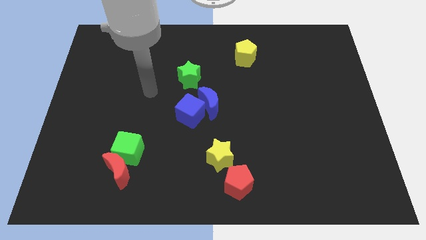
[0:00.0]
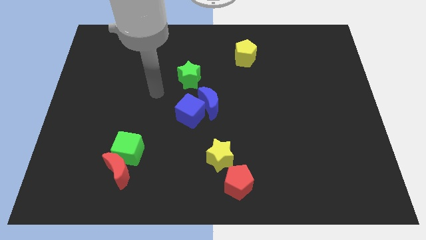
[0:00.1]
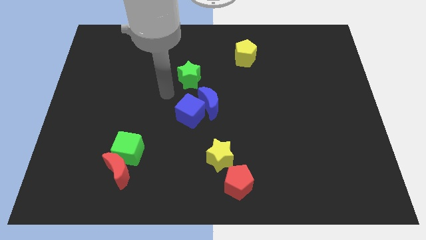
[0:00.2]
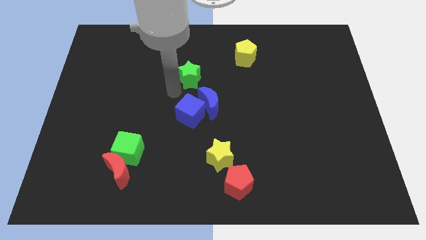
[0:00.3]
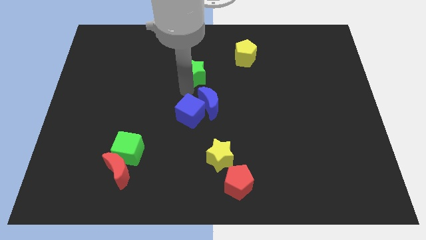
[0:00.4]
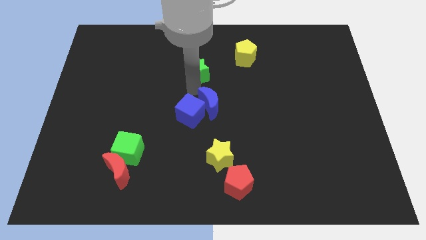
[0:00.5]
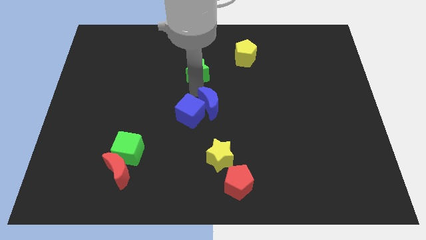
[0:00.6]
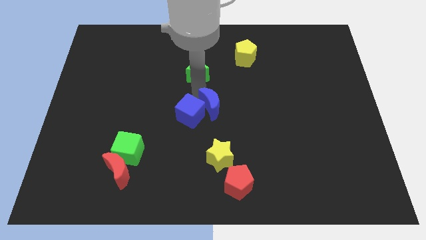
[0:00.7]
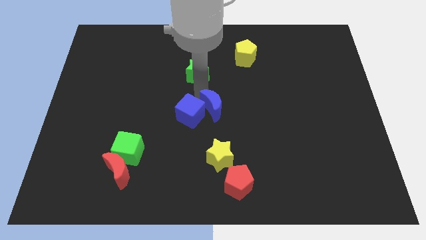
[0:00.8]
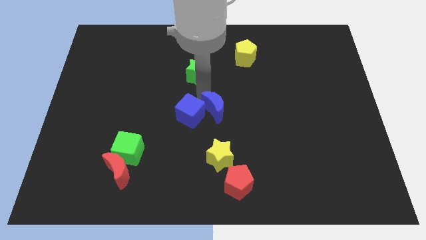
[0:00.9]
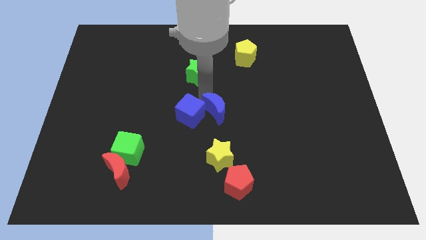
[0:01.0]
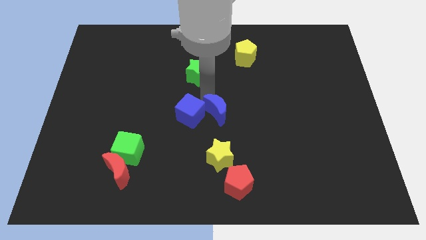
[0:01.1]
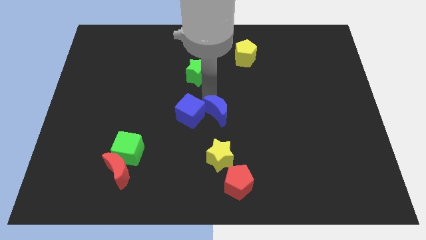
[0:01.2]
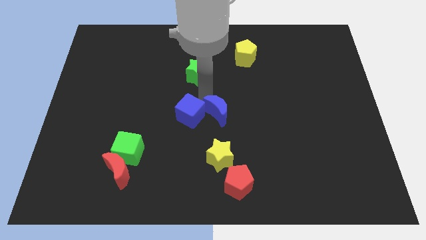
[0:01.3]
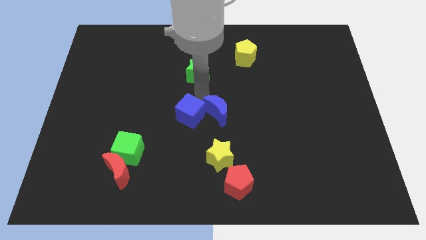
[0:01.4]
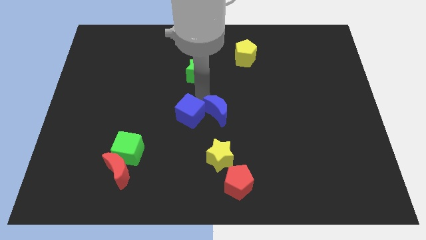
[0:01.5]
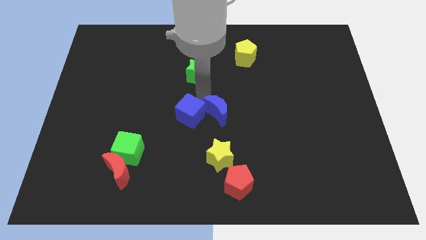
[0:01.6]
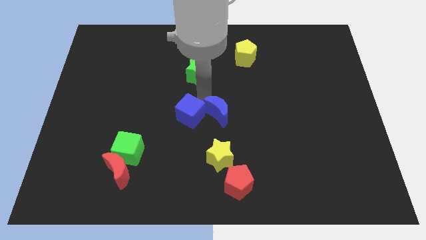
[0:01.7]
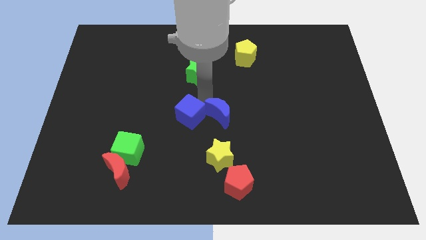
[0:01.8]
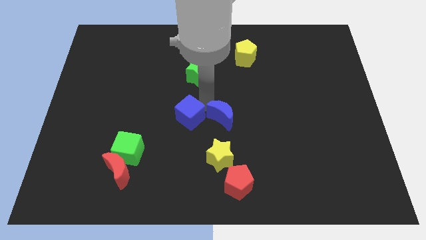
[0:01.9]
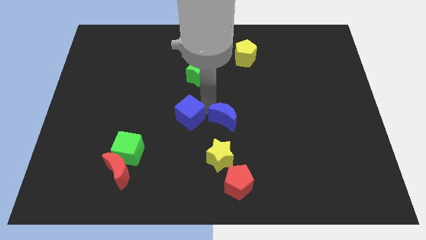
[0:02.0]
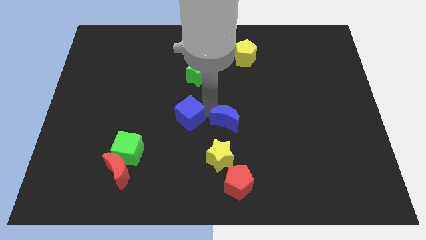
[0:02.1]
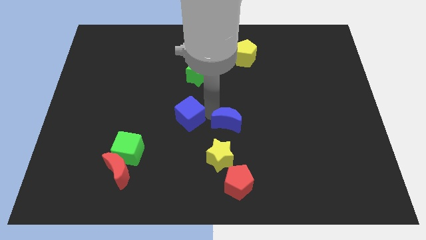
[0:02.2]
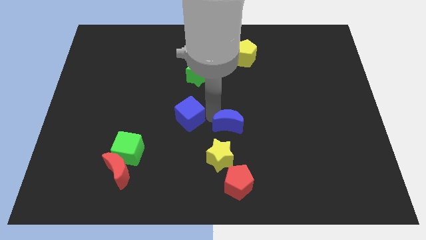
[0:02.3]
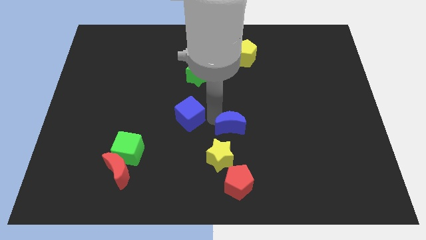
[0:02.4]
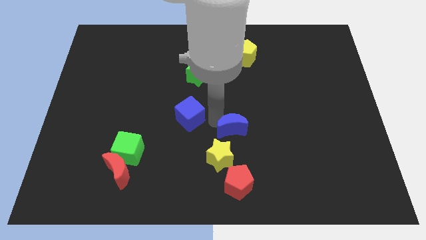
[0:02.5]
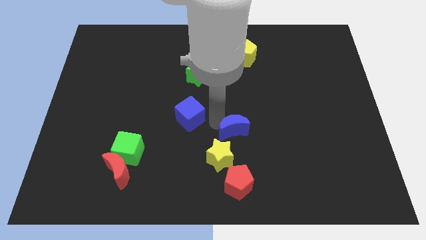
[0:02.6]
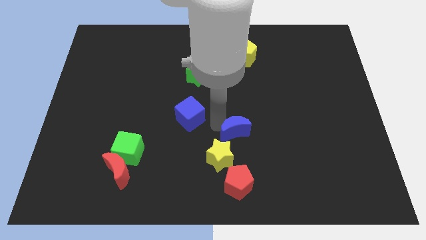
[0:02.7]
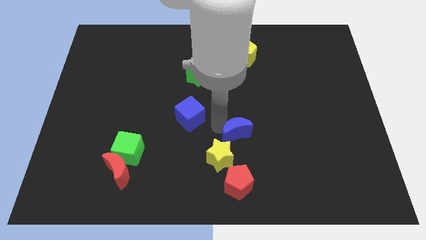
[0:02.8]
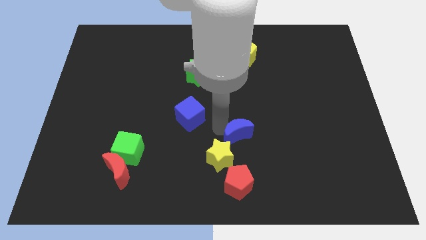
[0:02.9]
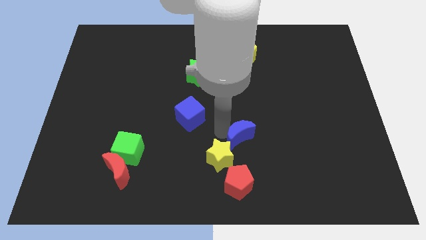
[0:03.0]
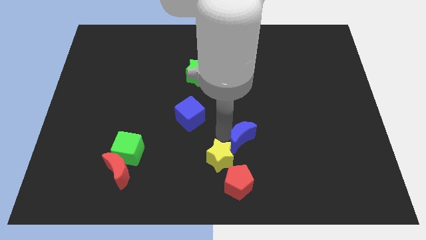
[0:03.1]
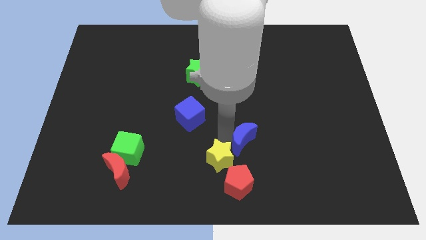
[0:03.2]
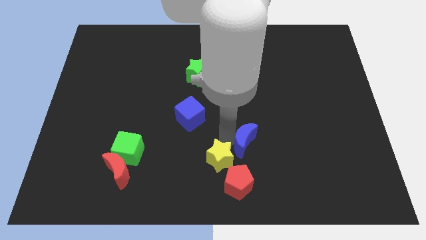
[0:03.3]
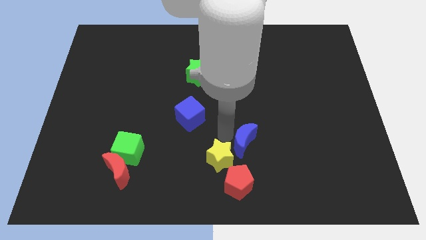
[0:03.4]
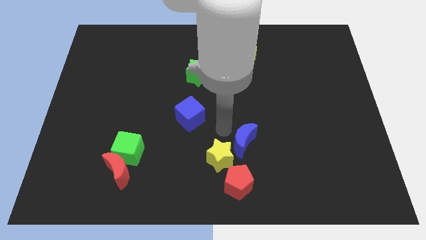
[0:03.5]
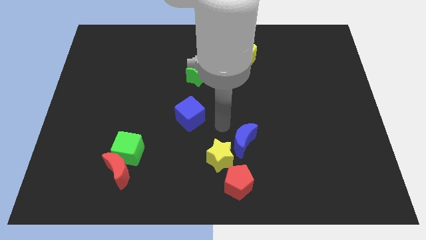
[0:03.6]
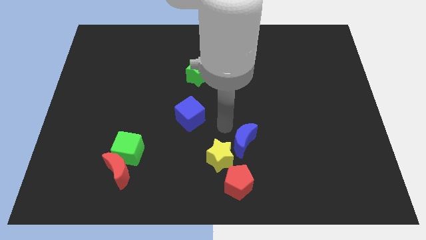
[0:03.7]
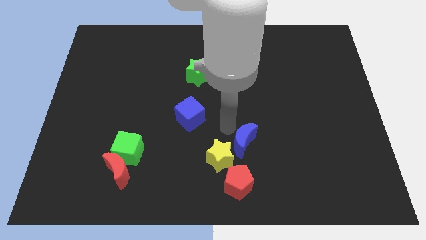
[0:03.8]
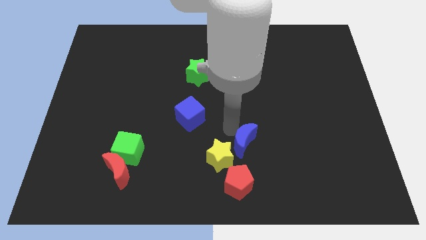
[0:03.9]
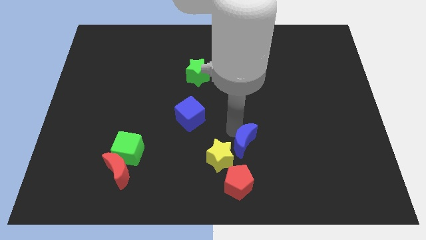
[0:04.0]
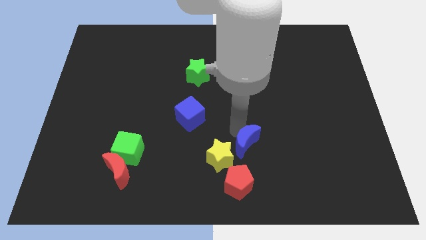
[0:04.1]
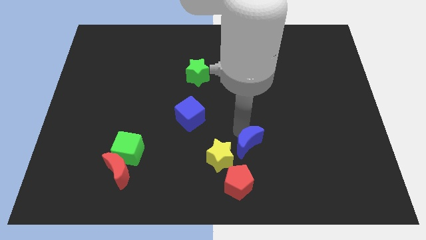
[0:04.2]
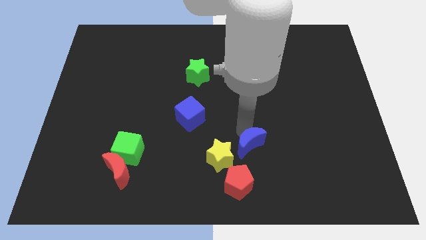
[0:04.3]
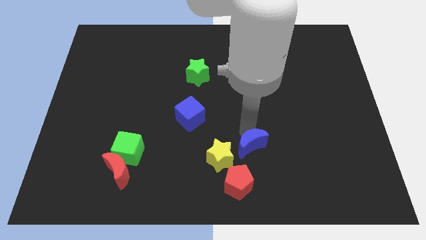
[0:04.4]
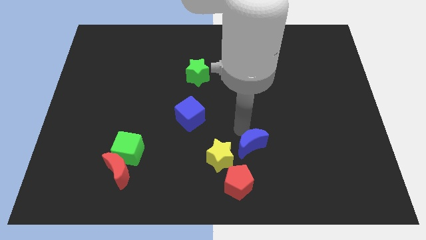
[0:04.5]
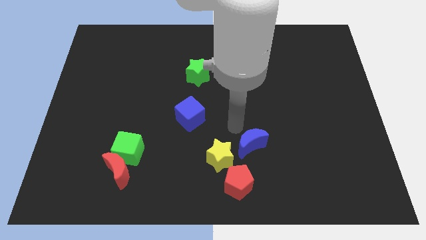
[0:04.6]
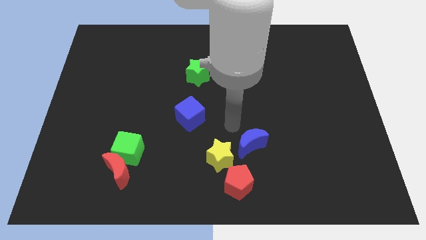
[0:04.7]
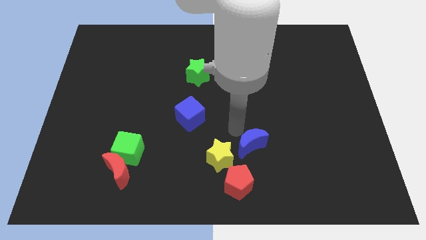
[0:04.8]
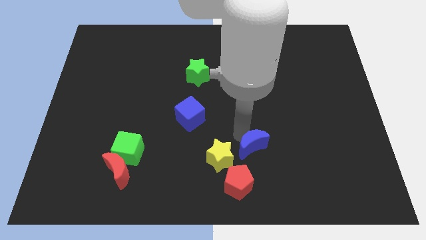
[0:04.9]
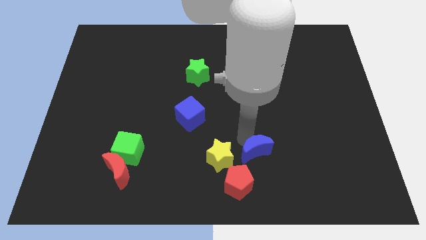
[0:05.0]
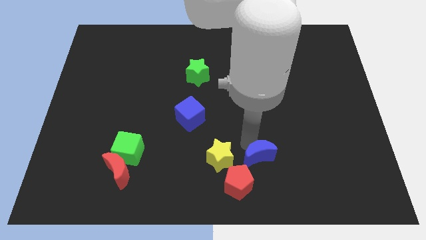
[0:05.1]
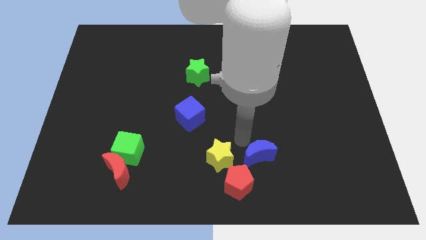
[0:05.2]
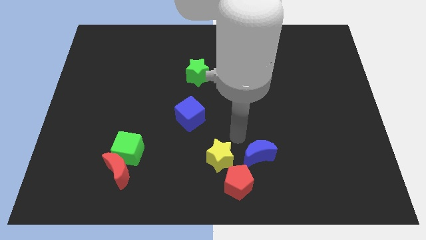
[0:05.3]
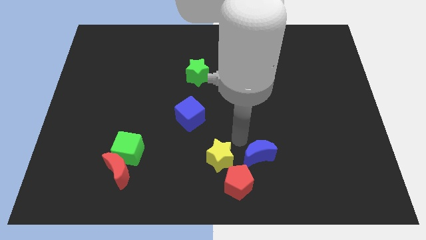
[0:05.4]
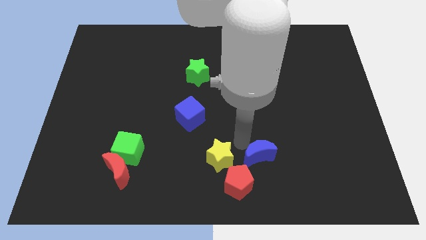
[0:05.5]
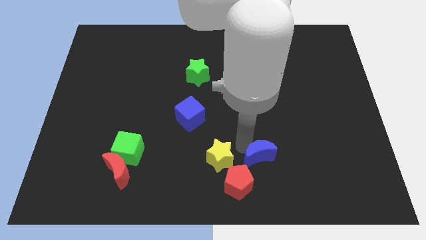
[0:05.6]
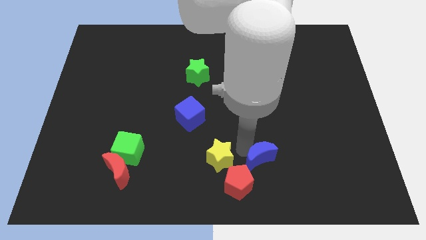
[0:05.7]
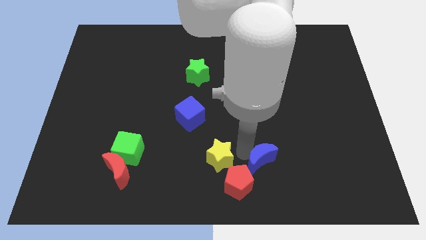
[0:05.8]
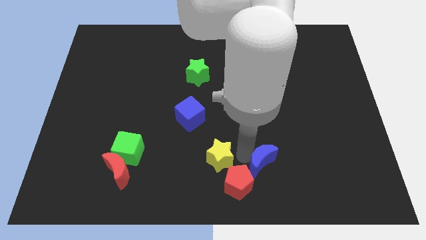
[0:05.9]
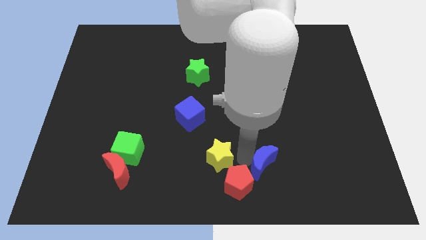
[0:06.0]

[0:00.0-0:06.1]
slide the blue moon to the right of the red pentagon

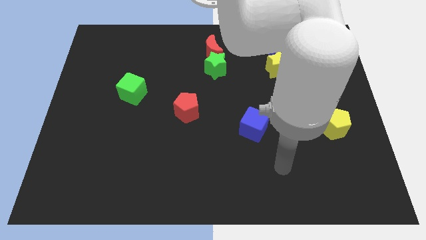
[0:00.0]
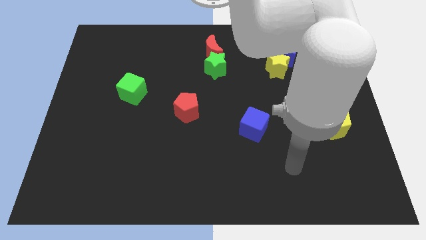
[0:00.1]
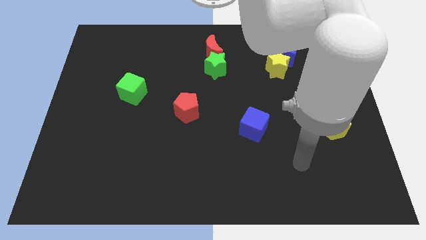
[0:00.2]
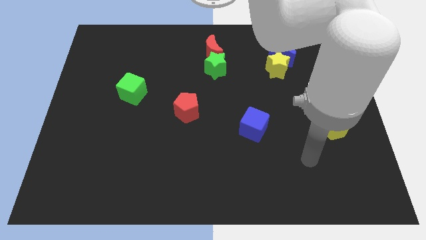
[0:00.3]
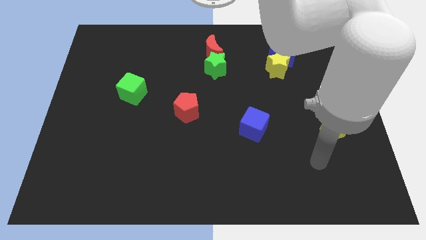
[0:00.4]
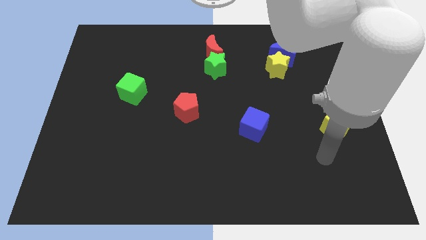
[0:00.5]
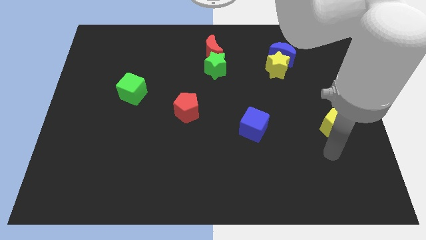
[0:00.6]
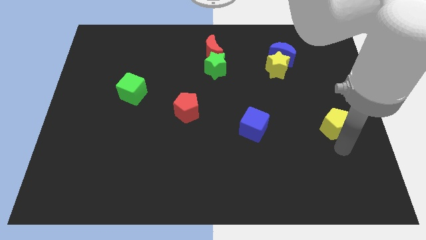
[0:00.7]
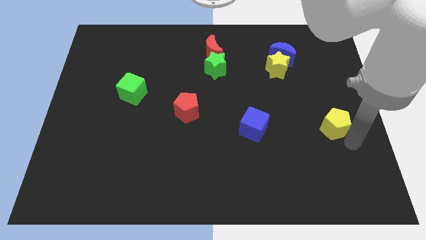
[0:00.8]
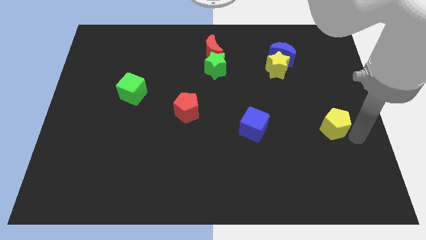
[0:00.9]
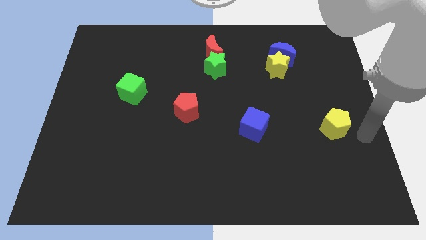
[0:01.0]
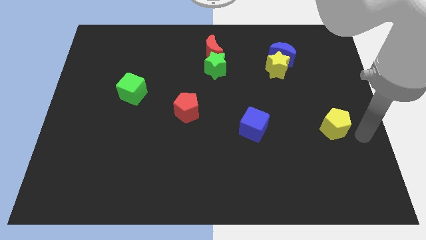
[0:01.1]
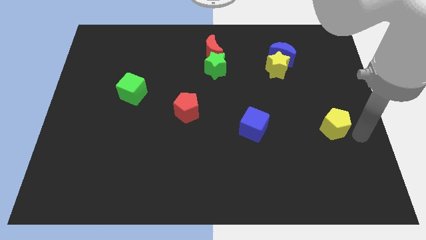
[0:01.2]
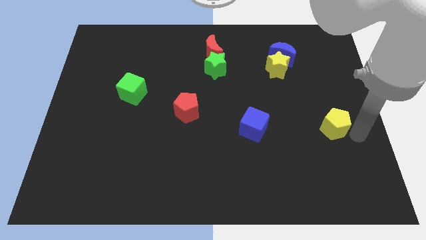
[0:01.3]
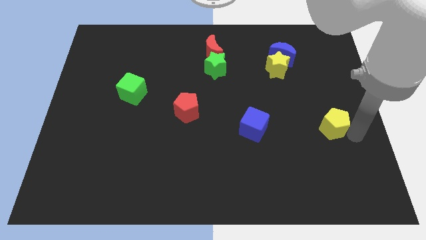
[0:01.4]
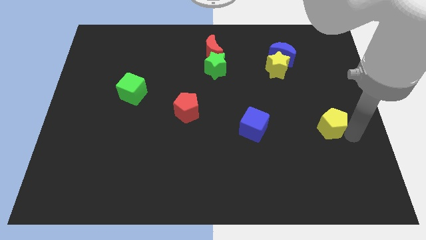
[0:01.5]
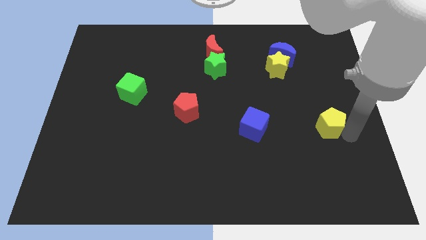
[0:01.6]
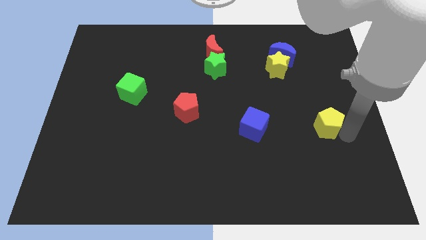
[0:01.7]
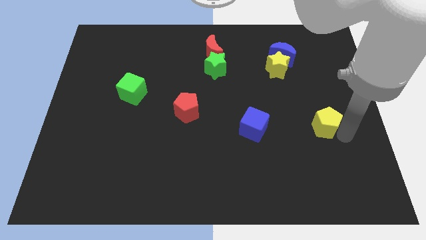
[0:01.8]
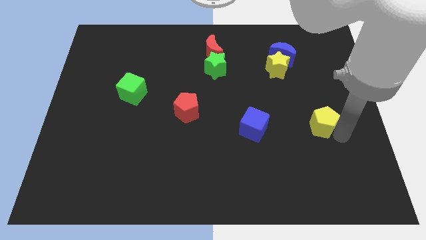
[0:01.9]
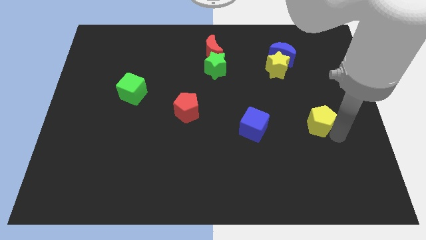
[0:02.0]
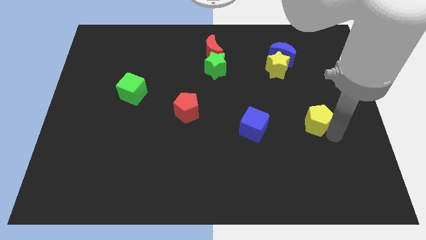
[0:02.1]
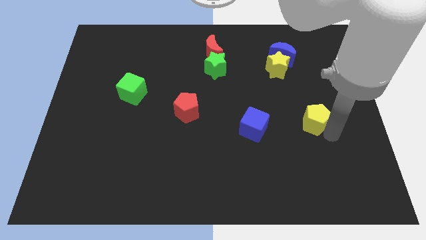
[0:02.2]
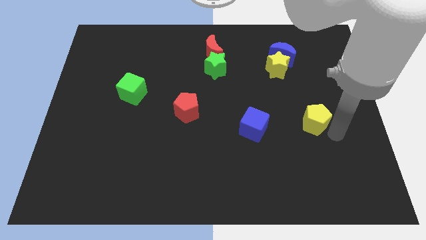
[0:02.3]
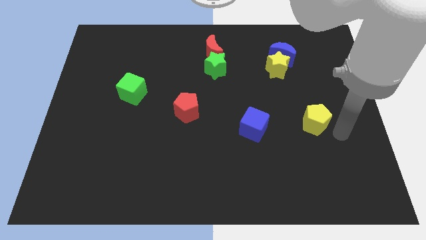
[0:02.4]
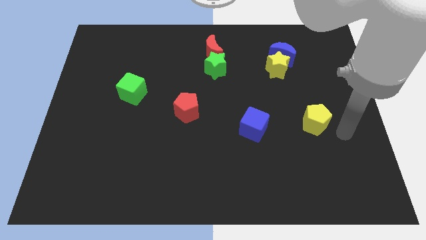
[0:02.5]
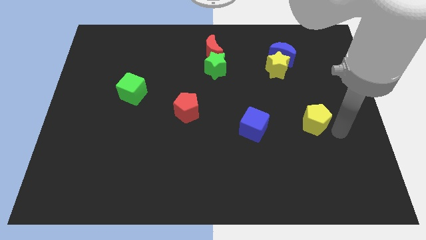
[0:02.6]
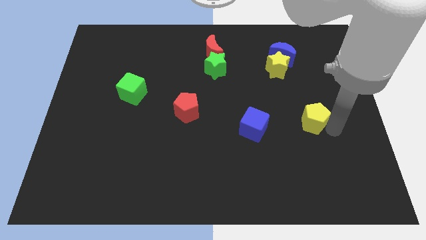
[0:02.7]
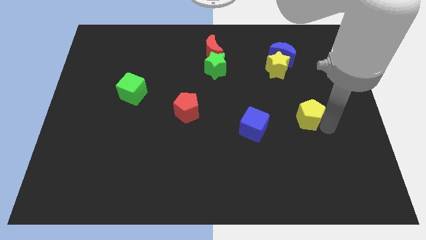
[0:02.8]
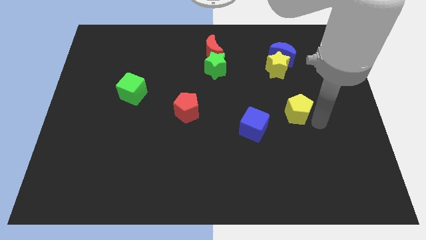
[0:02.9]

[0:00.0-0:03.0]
slide the yellow pentagon diagonally up and to the right of the blue cube
